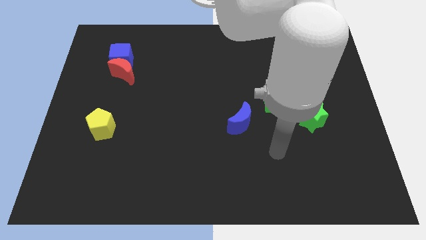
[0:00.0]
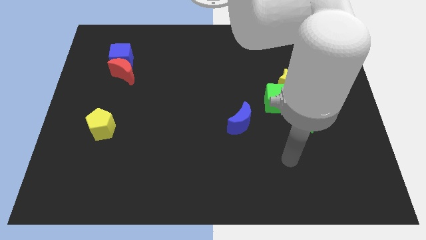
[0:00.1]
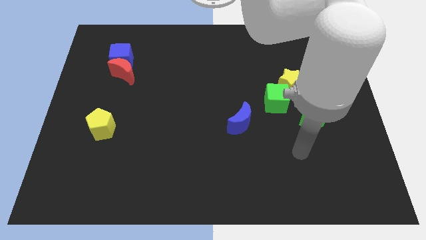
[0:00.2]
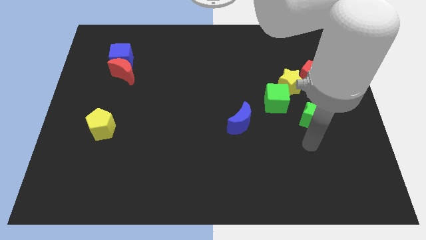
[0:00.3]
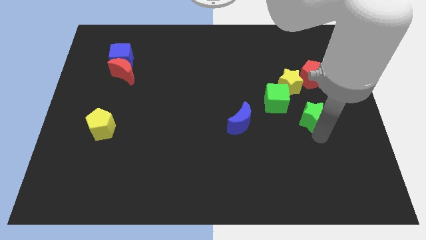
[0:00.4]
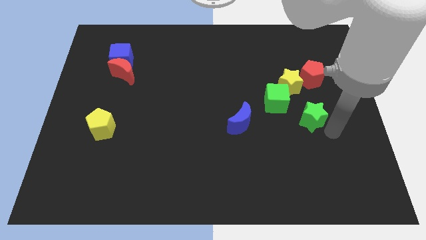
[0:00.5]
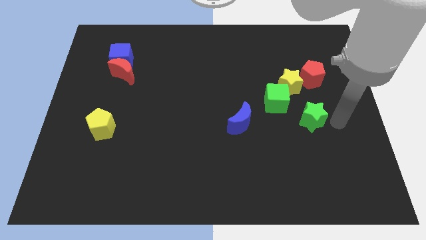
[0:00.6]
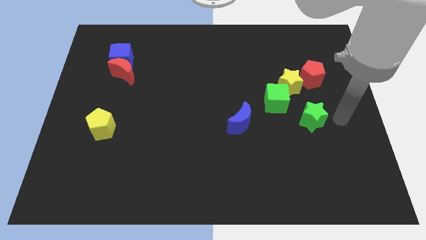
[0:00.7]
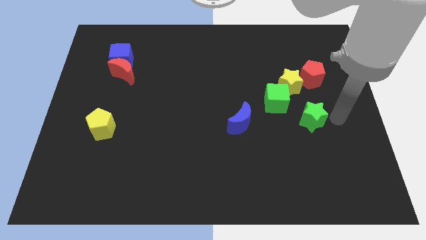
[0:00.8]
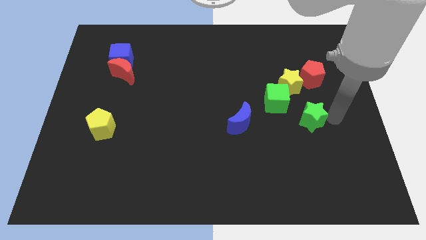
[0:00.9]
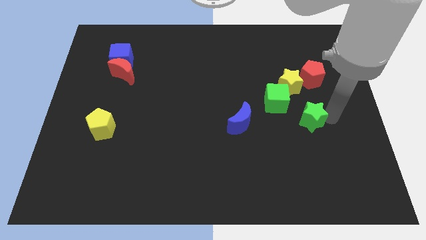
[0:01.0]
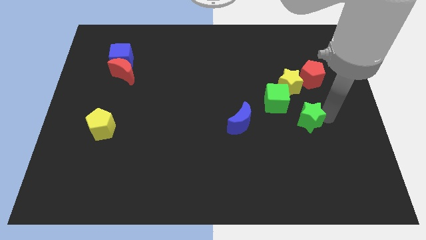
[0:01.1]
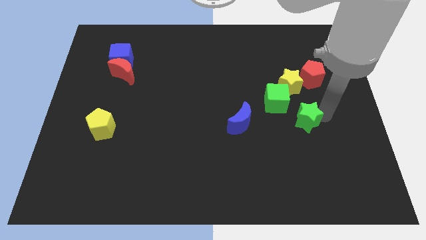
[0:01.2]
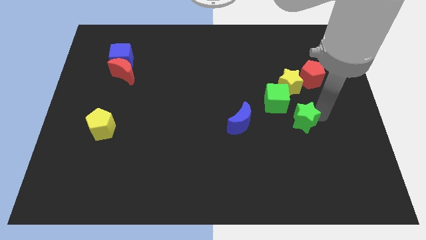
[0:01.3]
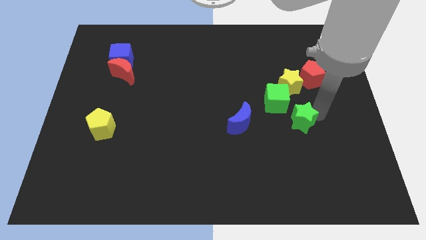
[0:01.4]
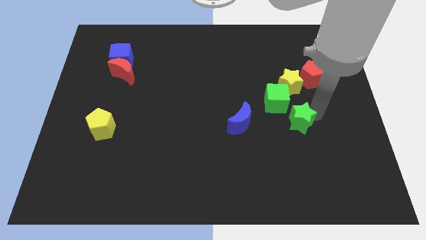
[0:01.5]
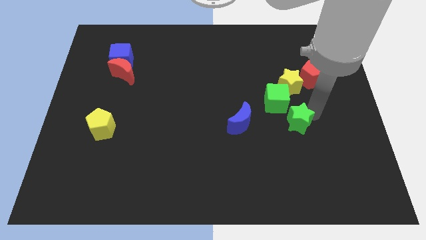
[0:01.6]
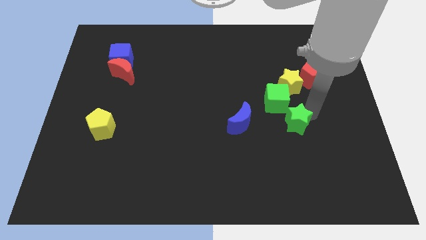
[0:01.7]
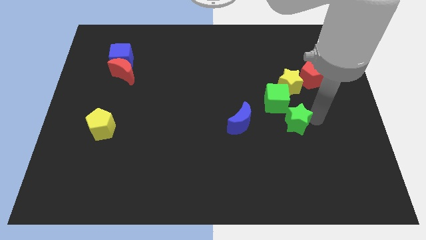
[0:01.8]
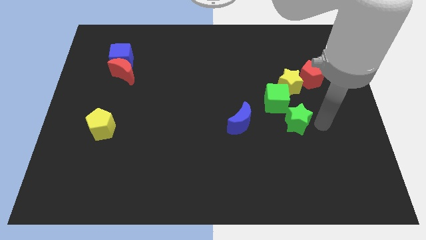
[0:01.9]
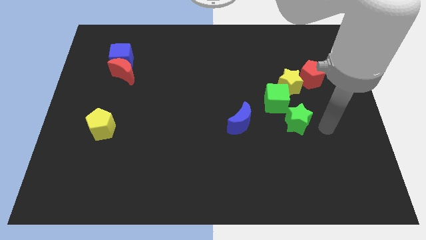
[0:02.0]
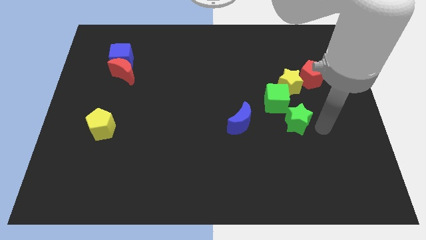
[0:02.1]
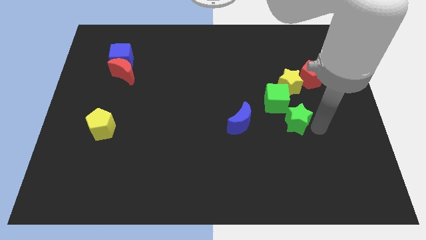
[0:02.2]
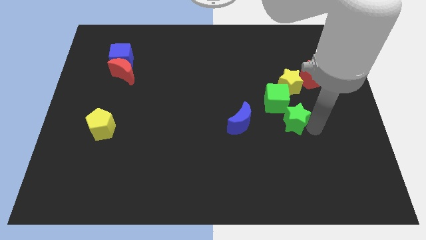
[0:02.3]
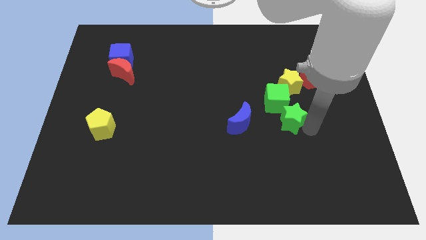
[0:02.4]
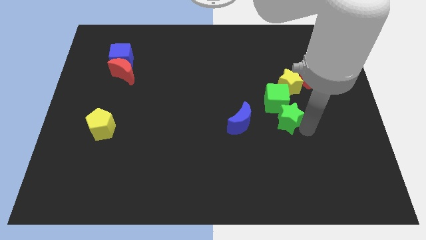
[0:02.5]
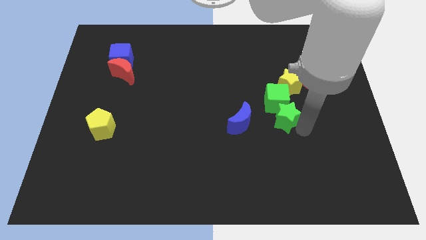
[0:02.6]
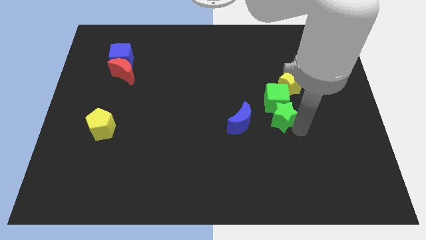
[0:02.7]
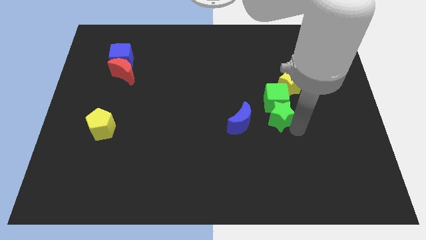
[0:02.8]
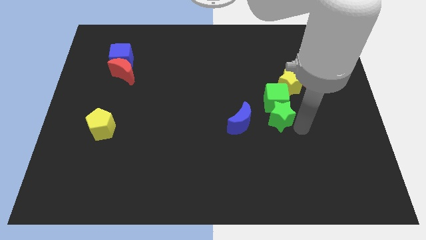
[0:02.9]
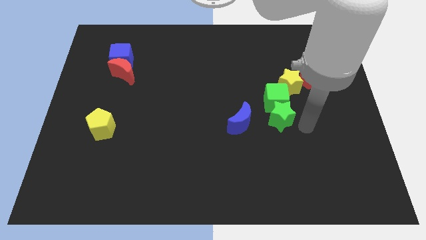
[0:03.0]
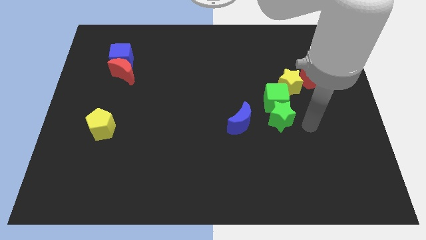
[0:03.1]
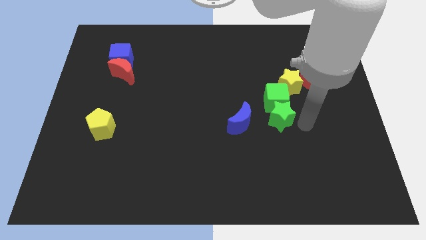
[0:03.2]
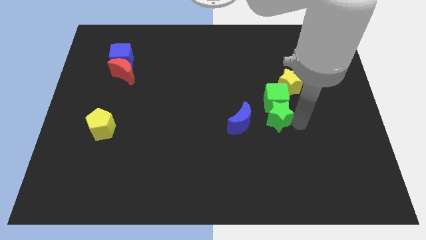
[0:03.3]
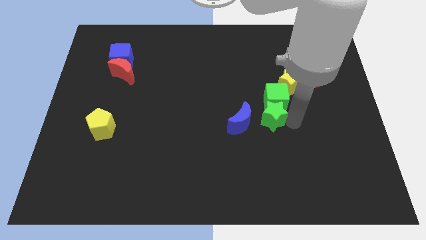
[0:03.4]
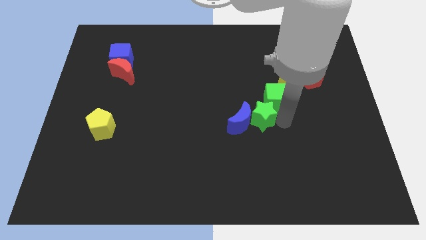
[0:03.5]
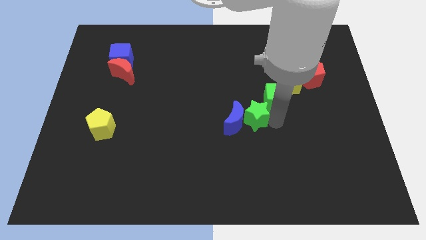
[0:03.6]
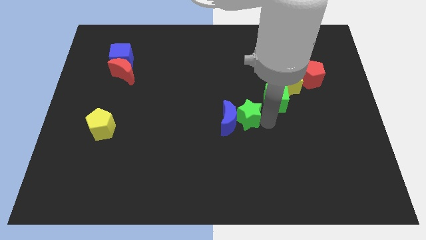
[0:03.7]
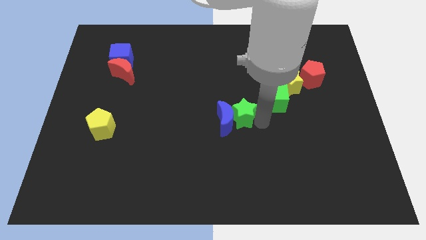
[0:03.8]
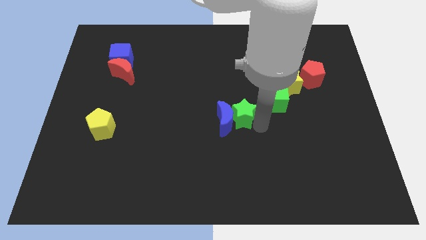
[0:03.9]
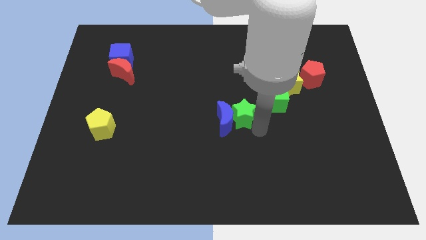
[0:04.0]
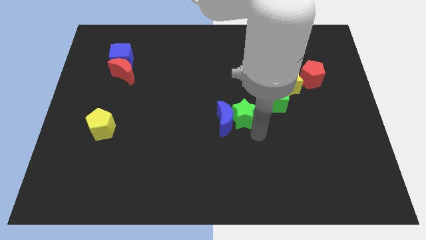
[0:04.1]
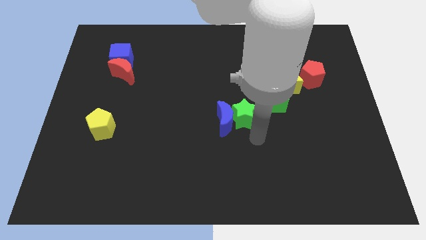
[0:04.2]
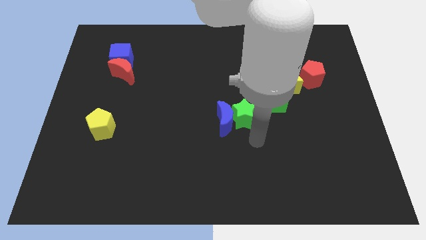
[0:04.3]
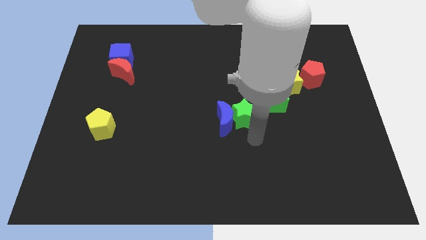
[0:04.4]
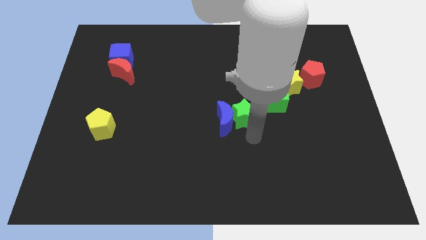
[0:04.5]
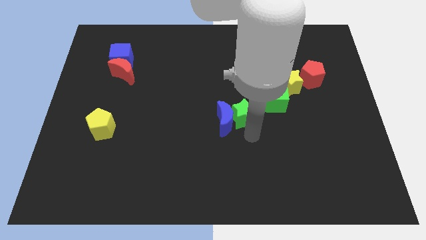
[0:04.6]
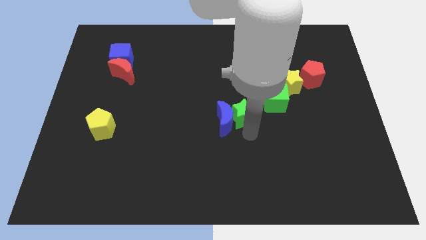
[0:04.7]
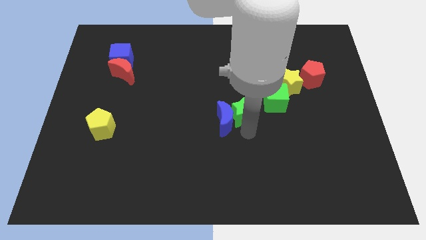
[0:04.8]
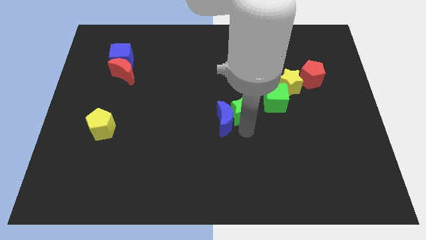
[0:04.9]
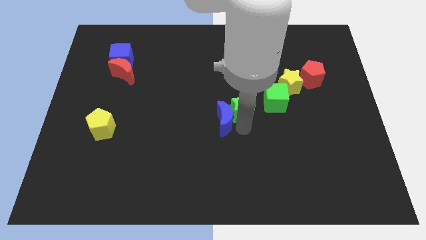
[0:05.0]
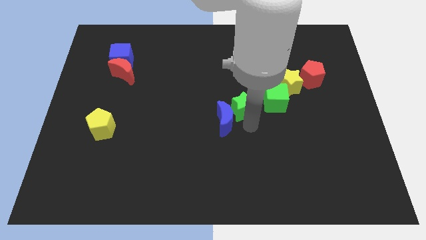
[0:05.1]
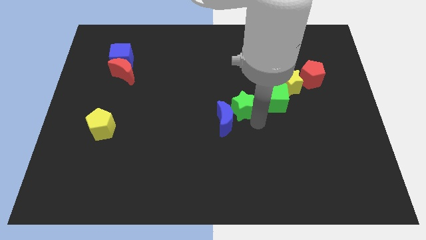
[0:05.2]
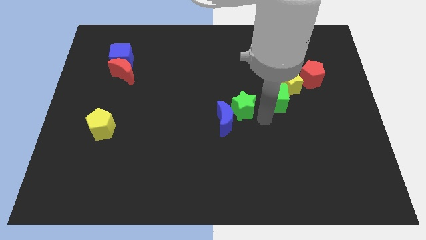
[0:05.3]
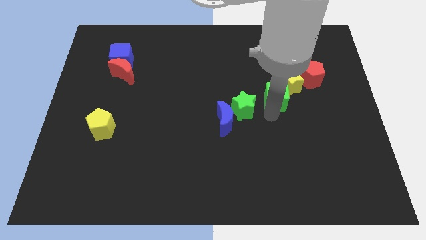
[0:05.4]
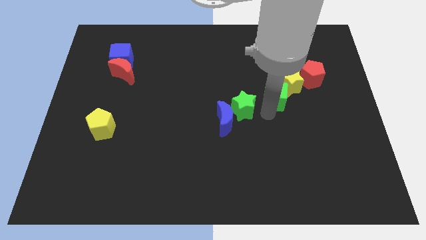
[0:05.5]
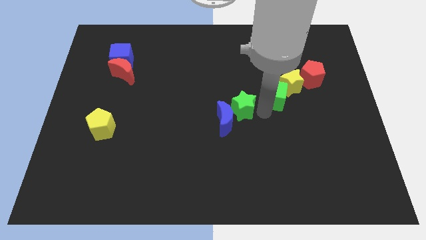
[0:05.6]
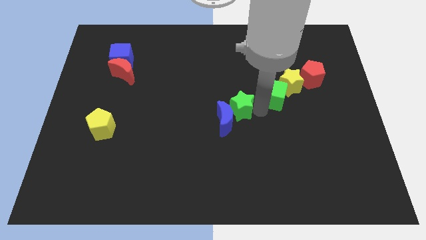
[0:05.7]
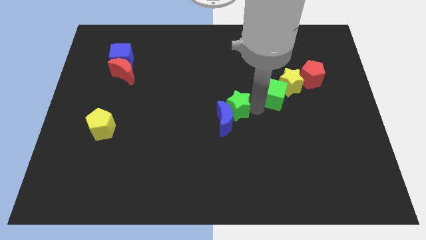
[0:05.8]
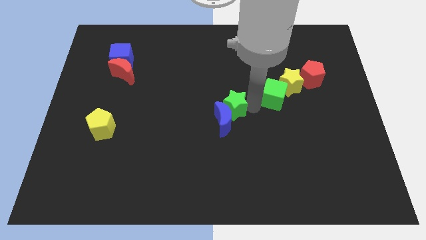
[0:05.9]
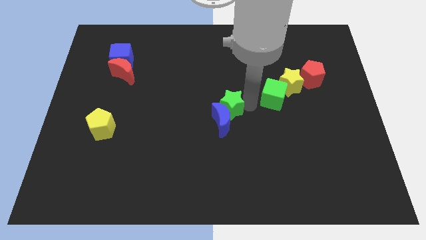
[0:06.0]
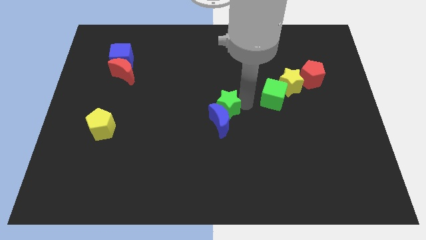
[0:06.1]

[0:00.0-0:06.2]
put the green star diagonally up and to the left of the blue moon

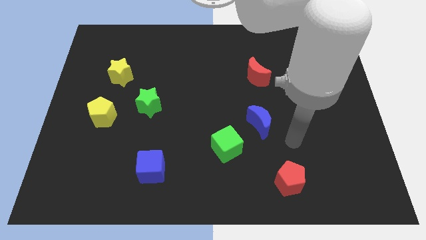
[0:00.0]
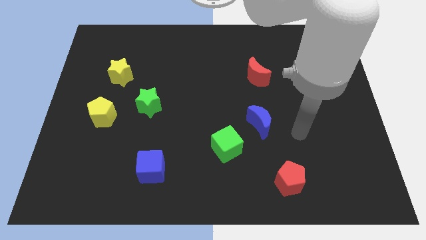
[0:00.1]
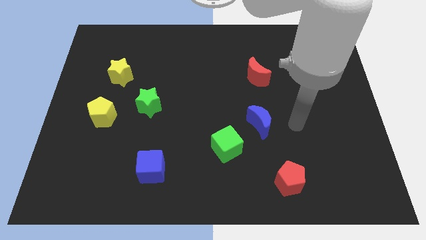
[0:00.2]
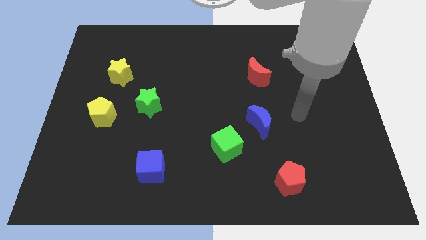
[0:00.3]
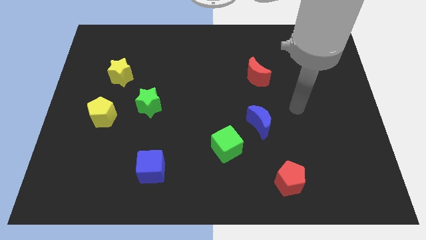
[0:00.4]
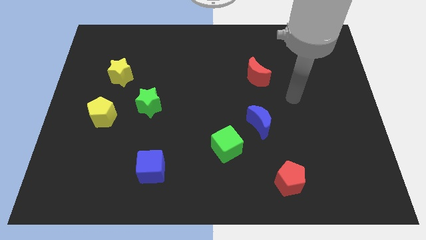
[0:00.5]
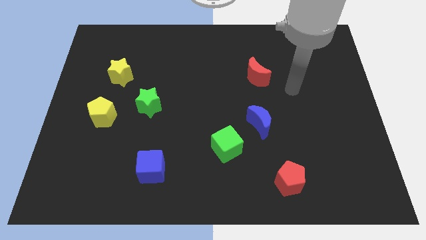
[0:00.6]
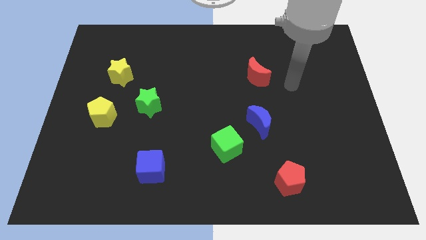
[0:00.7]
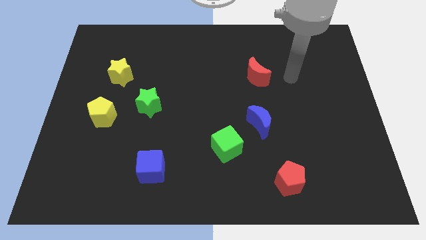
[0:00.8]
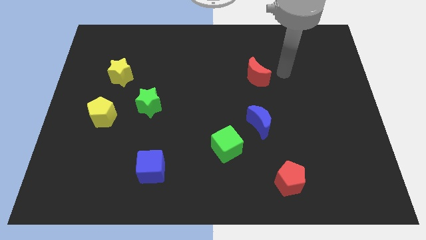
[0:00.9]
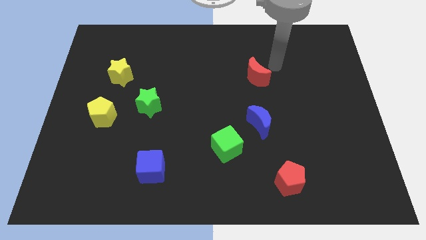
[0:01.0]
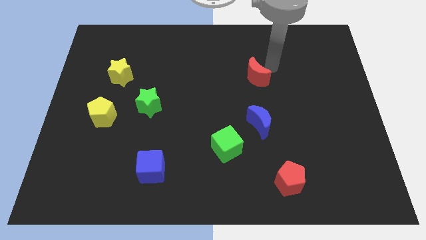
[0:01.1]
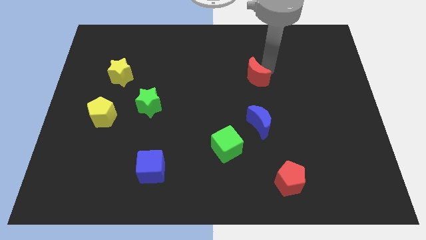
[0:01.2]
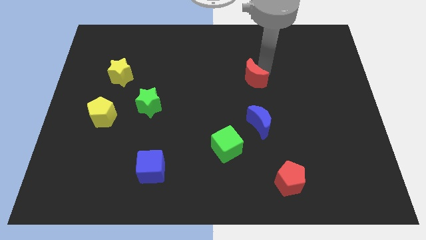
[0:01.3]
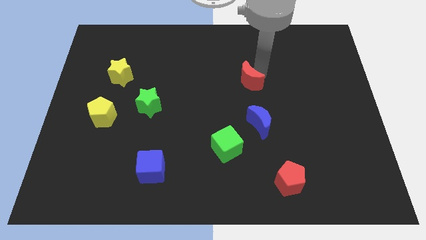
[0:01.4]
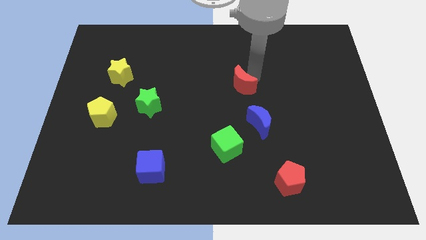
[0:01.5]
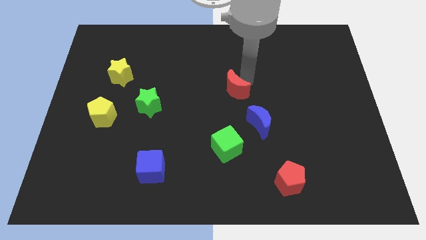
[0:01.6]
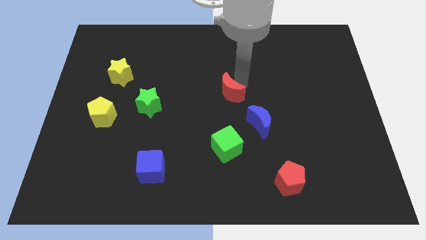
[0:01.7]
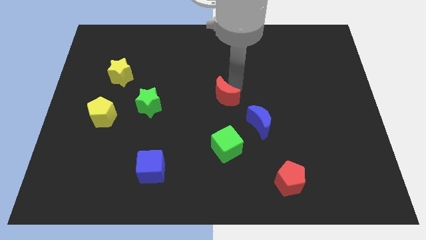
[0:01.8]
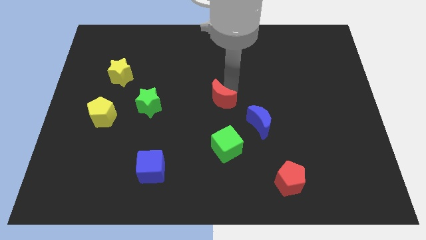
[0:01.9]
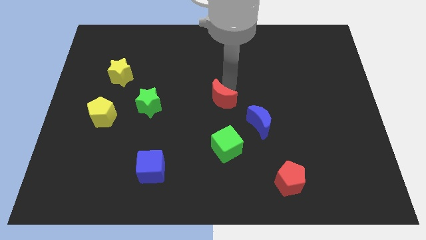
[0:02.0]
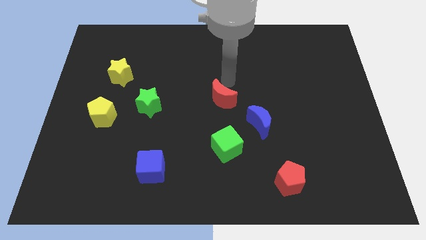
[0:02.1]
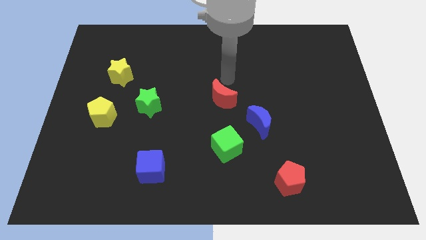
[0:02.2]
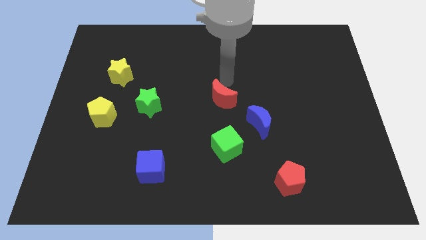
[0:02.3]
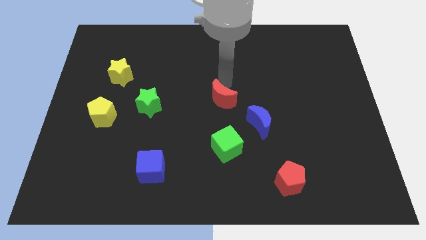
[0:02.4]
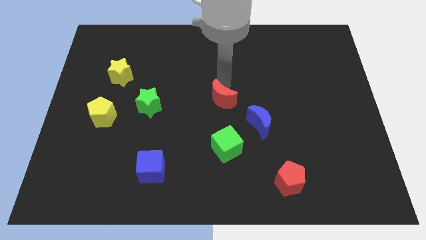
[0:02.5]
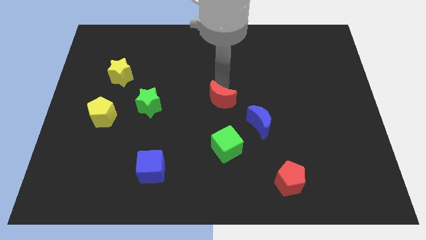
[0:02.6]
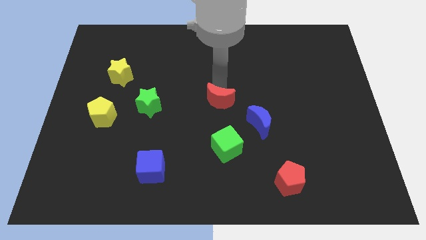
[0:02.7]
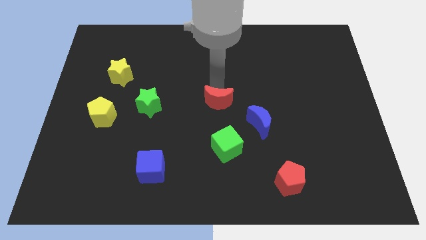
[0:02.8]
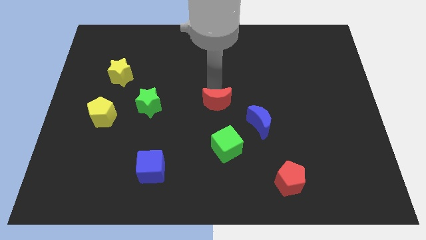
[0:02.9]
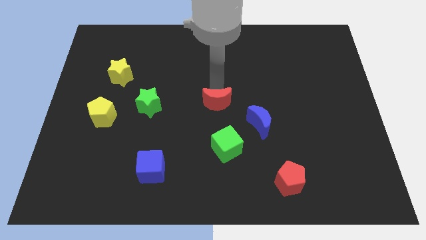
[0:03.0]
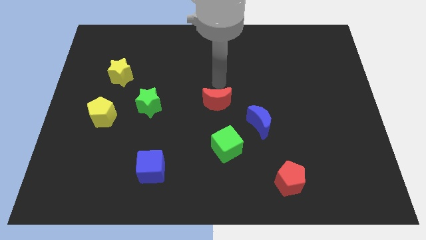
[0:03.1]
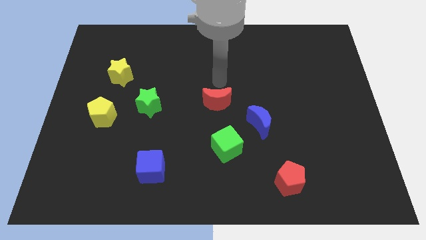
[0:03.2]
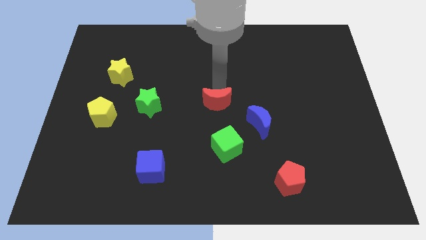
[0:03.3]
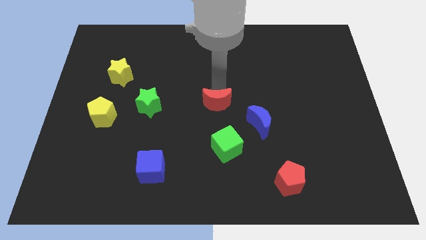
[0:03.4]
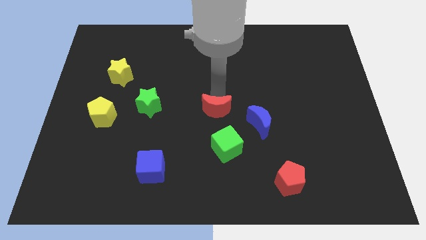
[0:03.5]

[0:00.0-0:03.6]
push the red moon to the left of the blue moon
